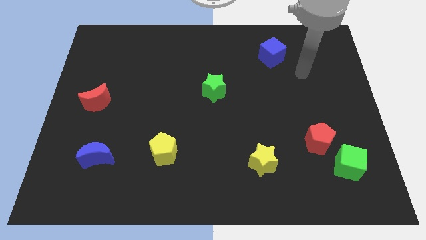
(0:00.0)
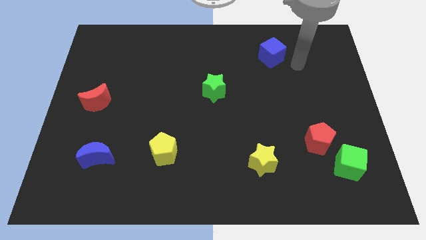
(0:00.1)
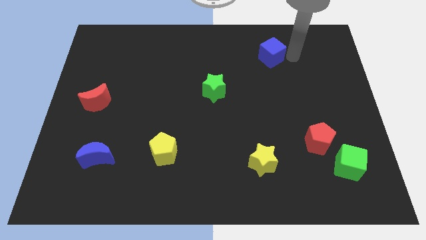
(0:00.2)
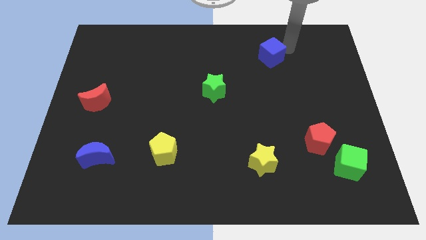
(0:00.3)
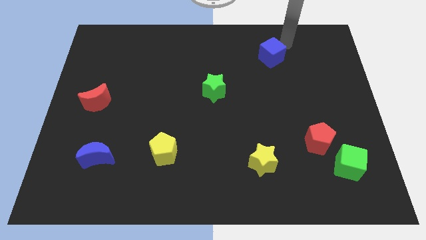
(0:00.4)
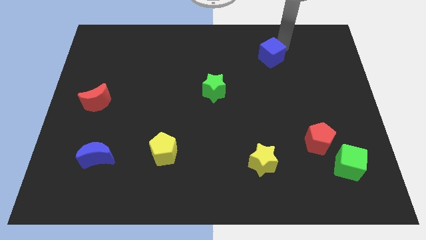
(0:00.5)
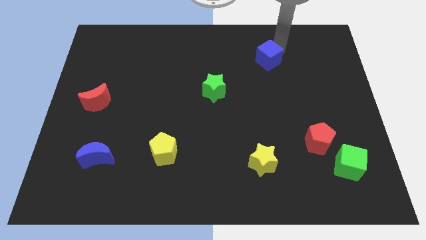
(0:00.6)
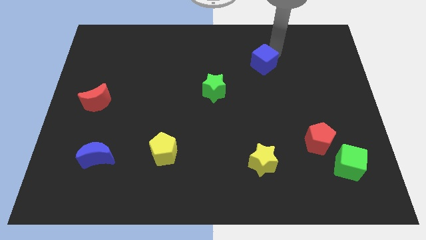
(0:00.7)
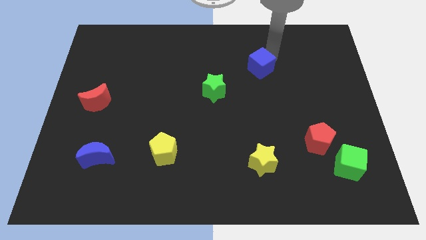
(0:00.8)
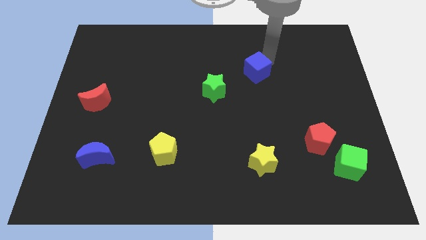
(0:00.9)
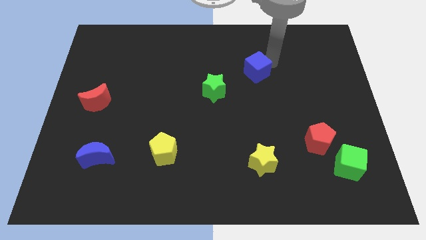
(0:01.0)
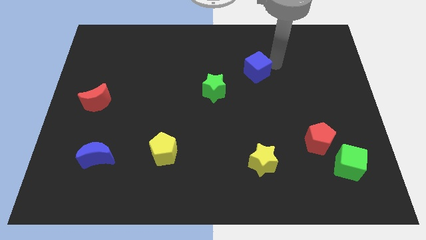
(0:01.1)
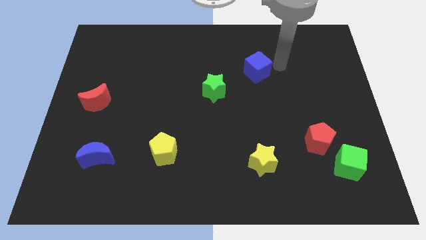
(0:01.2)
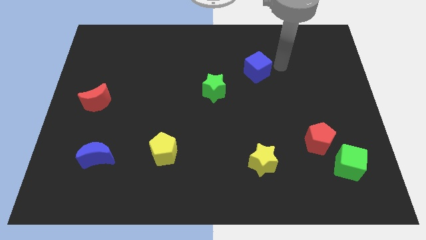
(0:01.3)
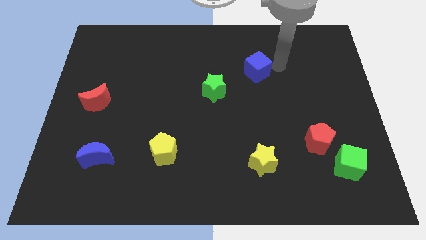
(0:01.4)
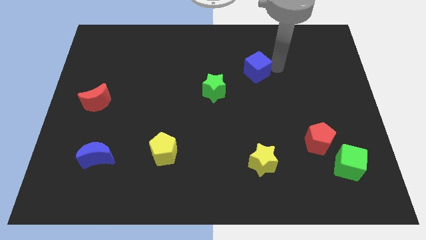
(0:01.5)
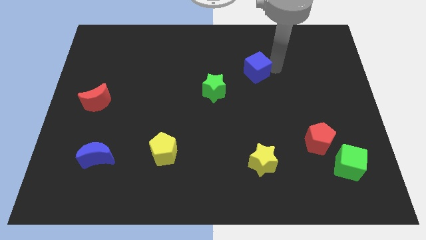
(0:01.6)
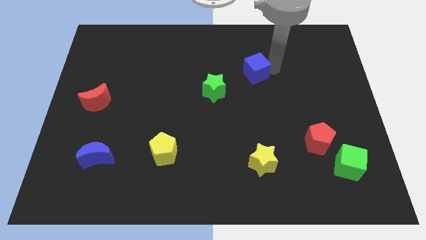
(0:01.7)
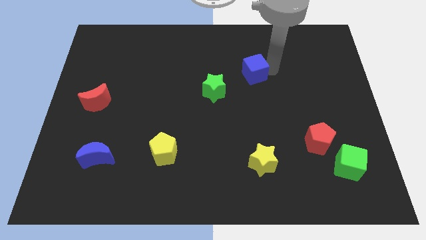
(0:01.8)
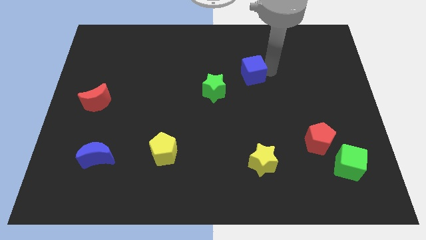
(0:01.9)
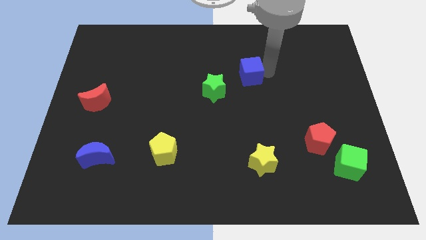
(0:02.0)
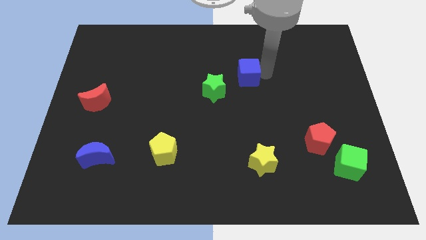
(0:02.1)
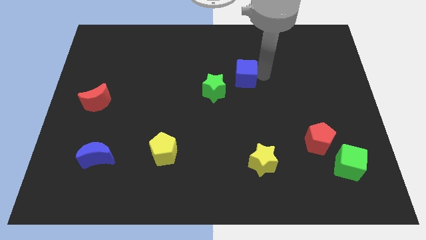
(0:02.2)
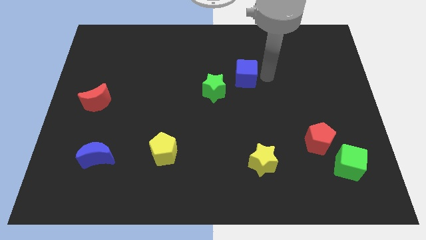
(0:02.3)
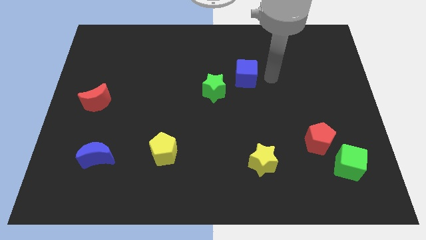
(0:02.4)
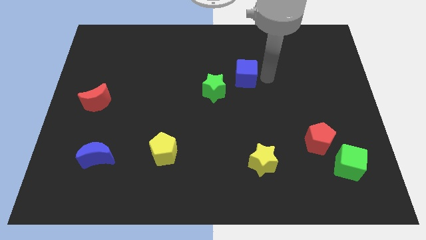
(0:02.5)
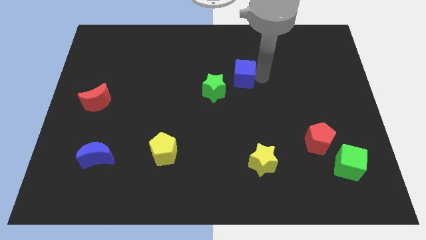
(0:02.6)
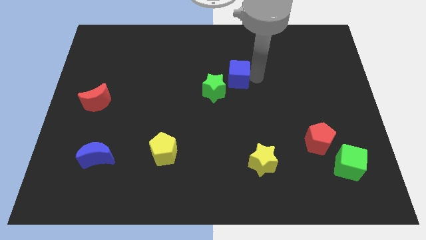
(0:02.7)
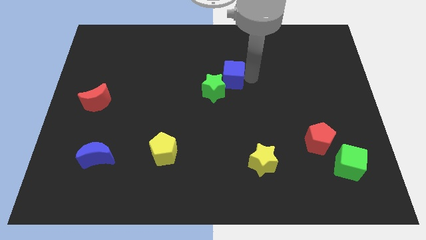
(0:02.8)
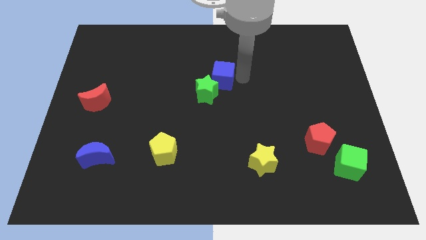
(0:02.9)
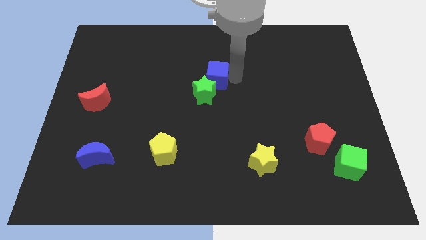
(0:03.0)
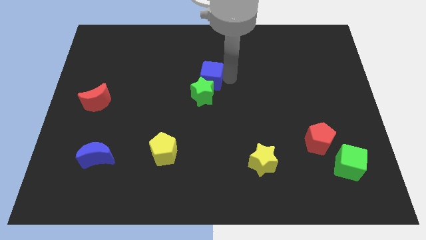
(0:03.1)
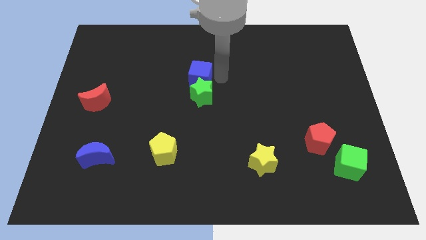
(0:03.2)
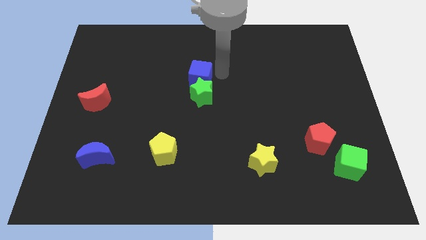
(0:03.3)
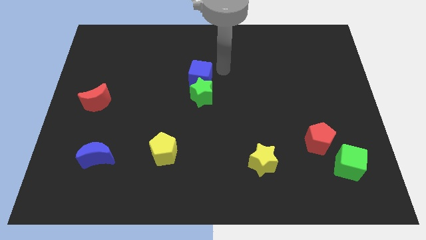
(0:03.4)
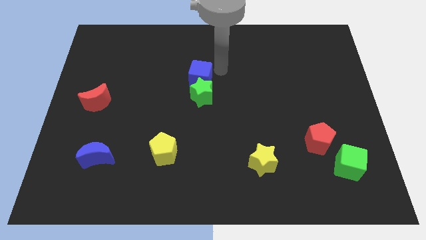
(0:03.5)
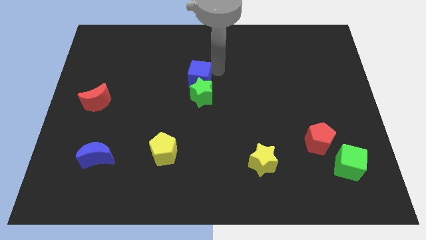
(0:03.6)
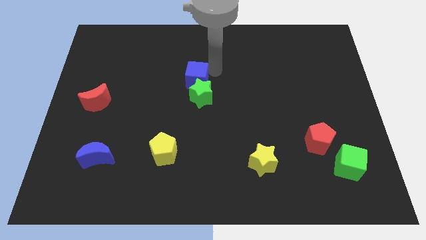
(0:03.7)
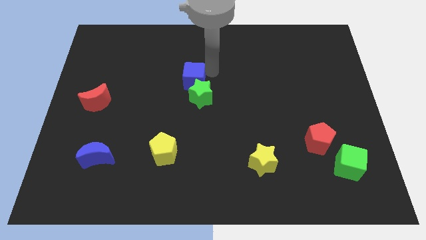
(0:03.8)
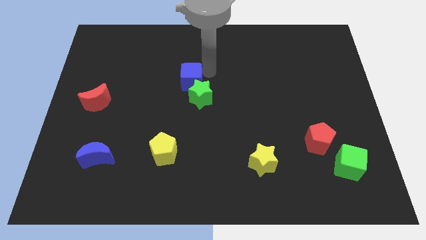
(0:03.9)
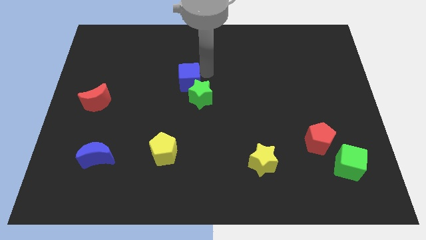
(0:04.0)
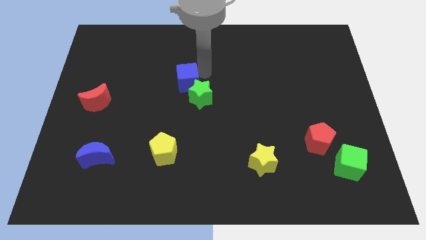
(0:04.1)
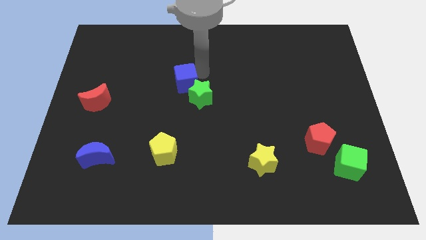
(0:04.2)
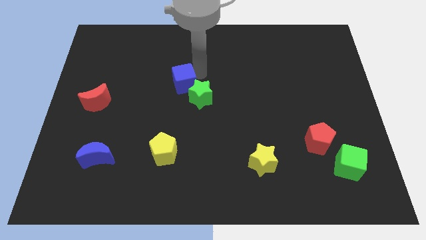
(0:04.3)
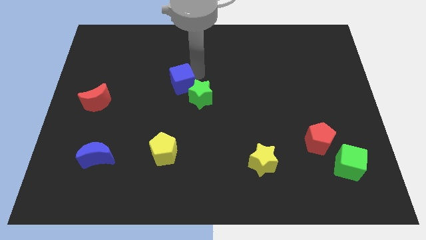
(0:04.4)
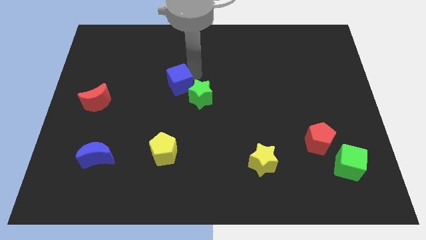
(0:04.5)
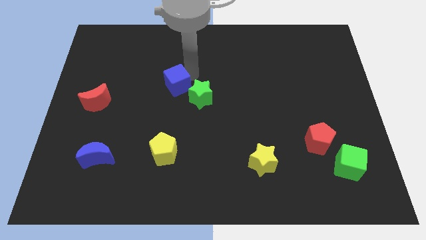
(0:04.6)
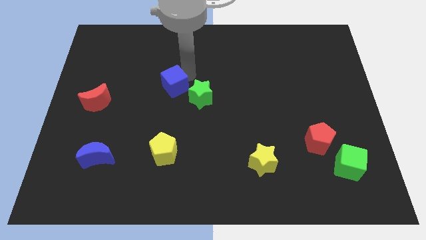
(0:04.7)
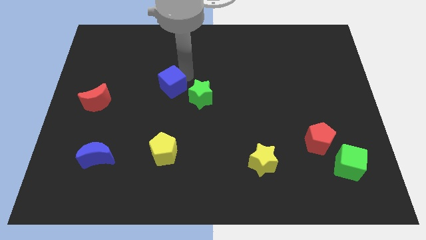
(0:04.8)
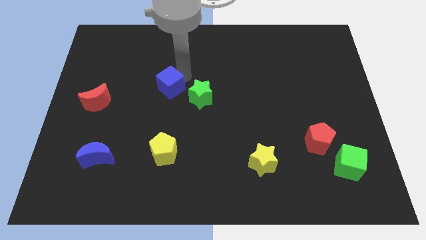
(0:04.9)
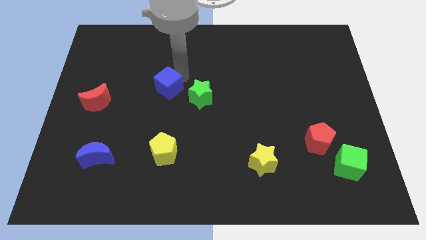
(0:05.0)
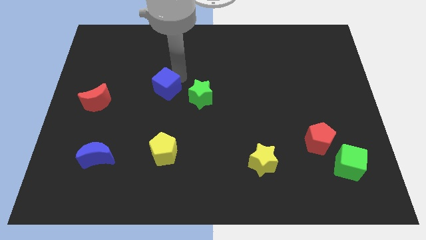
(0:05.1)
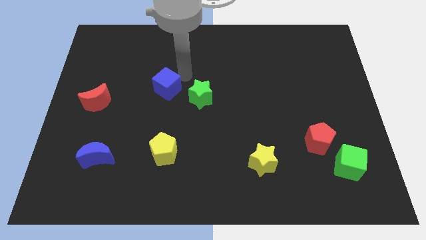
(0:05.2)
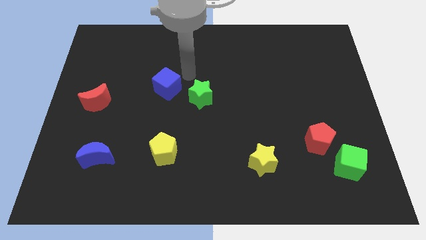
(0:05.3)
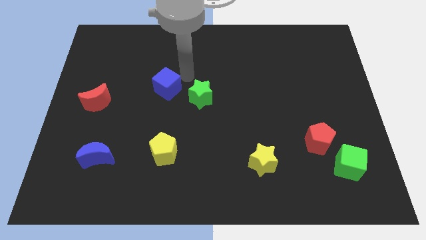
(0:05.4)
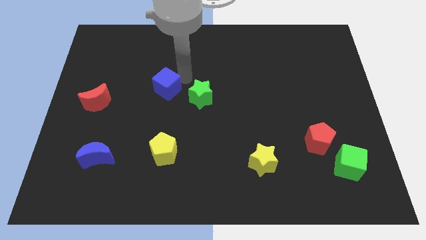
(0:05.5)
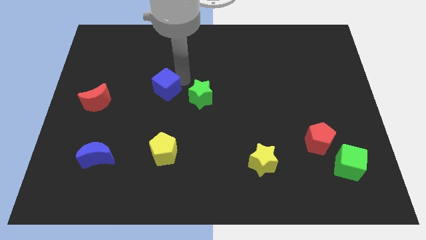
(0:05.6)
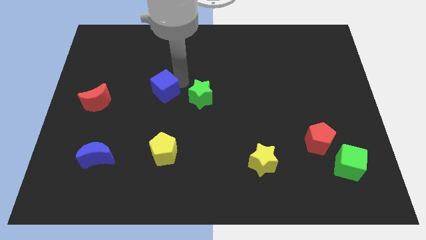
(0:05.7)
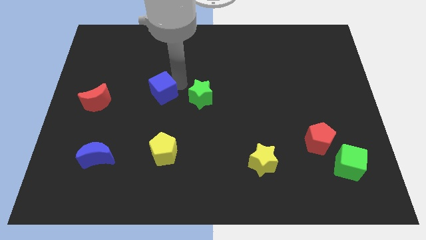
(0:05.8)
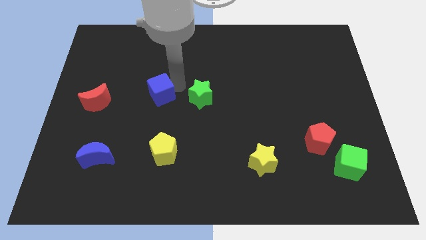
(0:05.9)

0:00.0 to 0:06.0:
slide the blue cube just right of the red moon

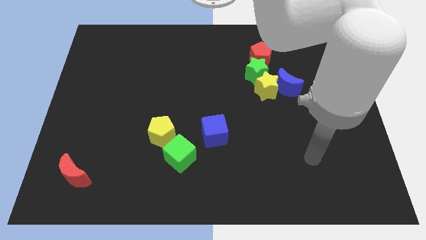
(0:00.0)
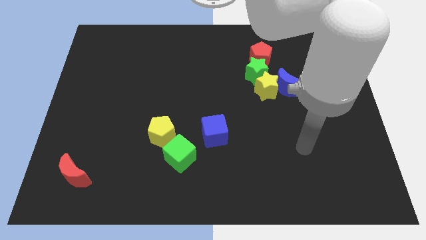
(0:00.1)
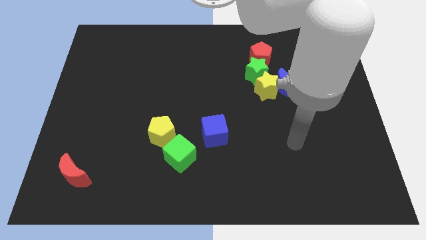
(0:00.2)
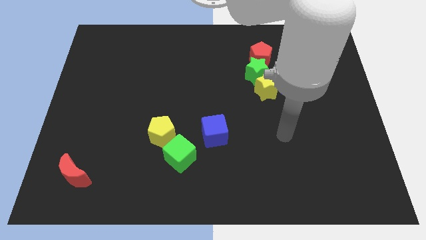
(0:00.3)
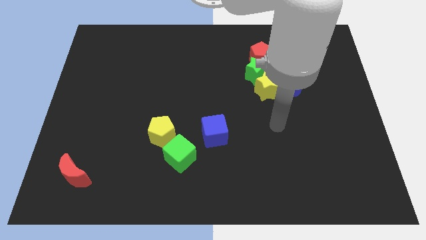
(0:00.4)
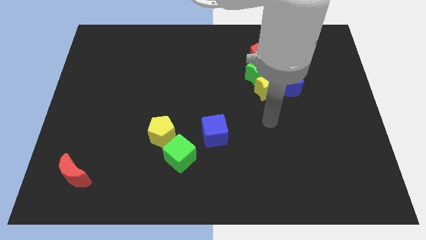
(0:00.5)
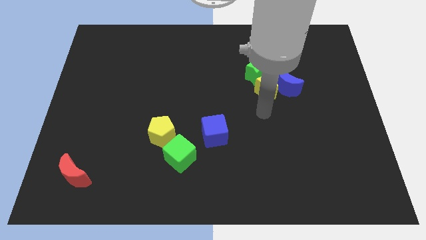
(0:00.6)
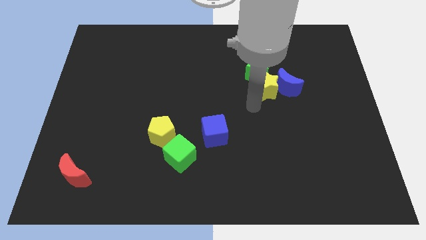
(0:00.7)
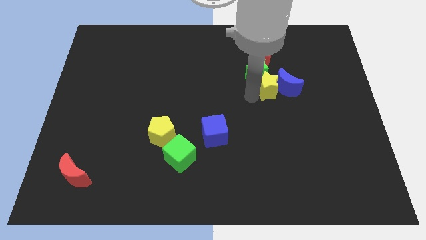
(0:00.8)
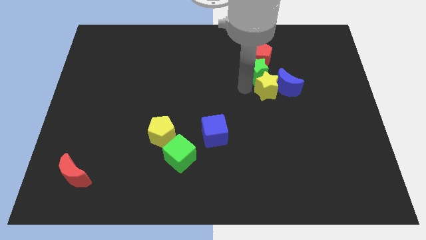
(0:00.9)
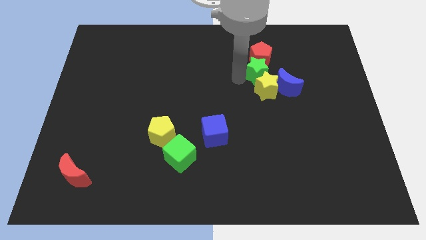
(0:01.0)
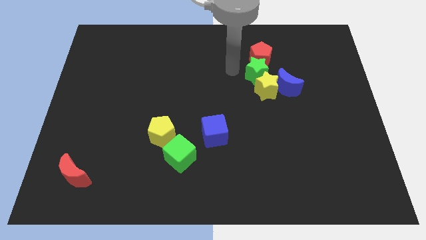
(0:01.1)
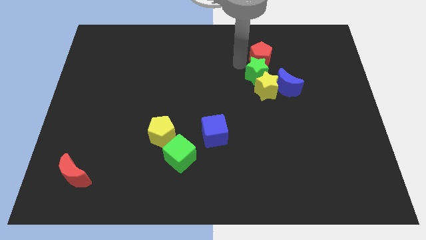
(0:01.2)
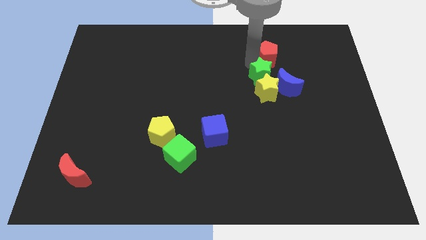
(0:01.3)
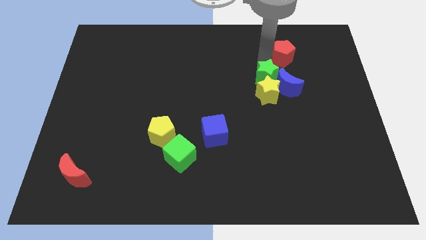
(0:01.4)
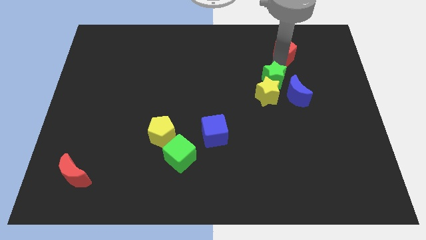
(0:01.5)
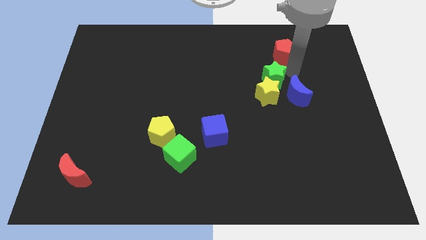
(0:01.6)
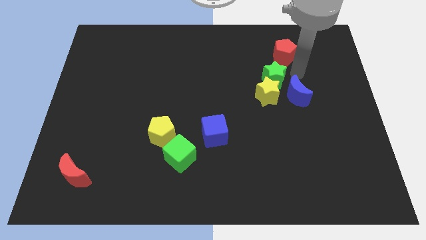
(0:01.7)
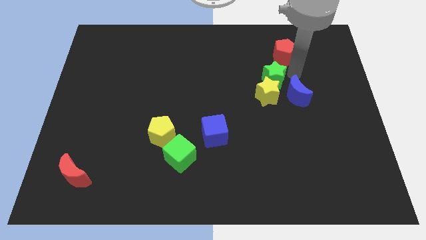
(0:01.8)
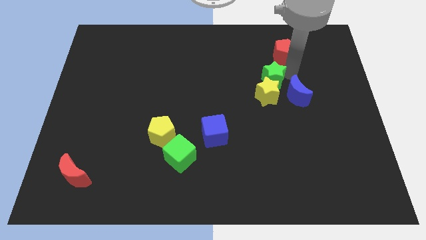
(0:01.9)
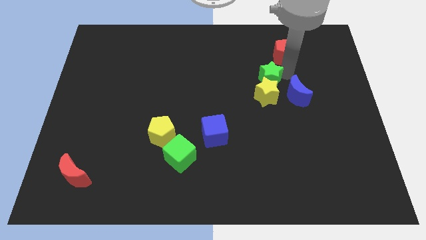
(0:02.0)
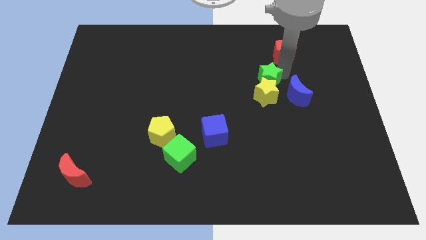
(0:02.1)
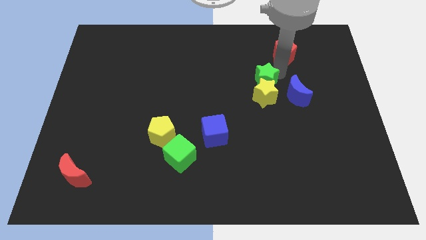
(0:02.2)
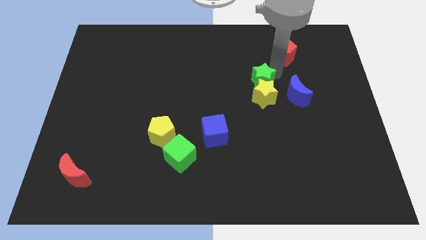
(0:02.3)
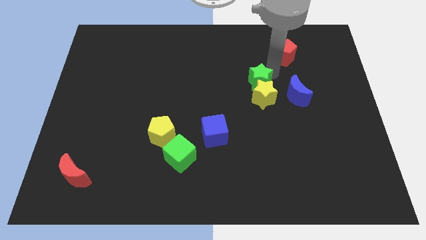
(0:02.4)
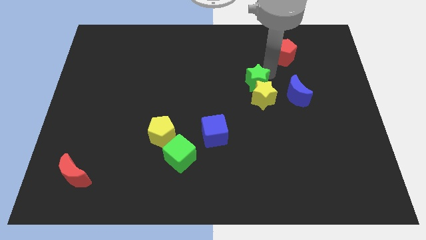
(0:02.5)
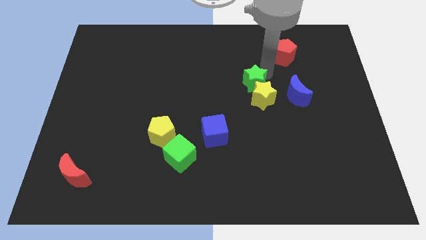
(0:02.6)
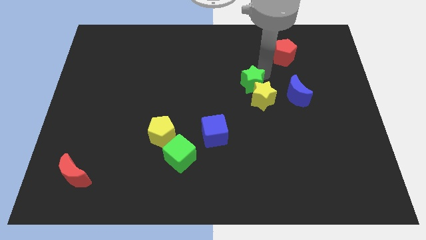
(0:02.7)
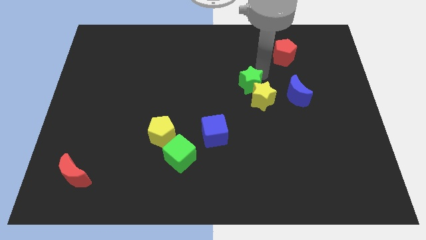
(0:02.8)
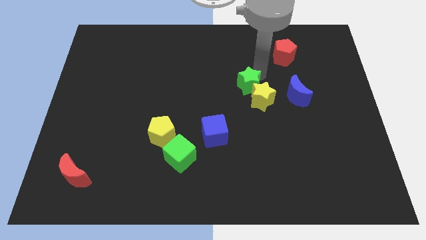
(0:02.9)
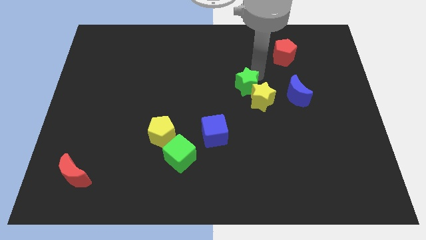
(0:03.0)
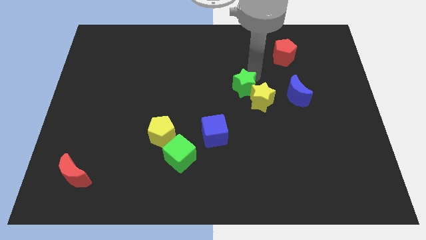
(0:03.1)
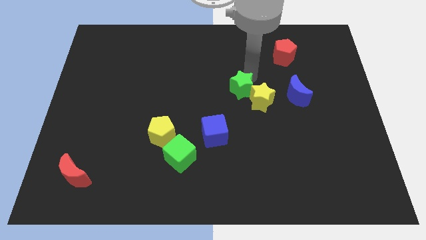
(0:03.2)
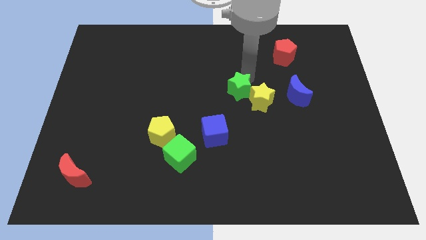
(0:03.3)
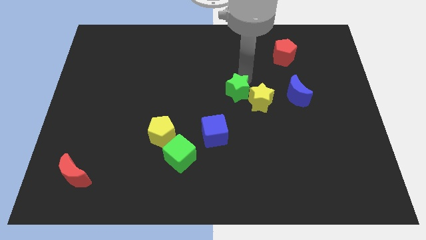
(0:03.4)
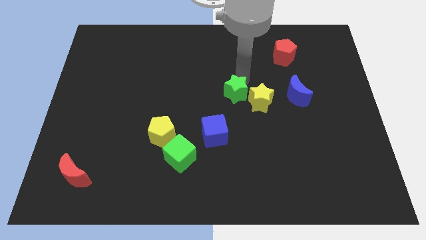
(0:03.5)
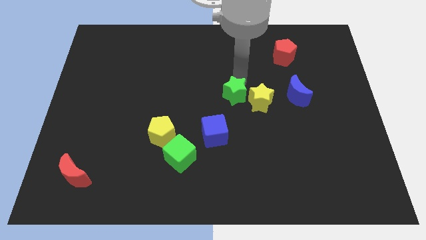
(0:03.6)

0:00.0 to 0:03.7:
move the green star to the top of the blue cube
